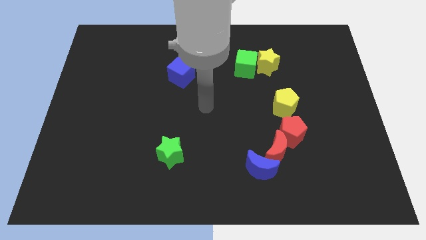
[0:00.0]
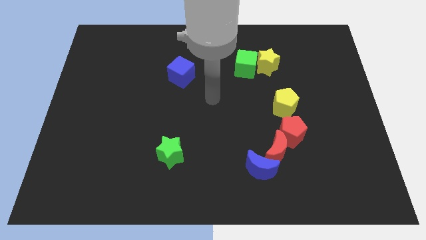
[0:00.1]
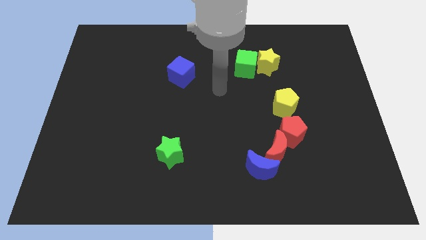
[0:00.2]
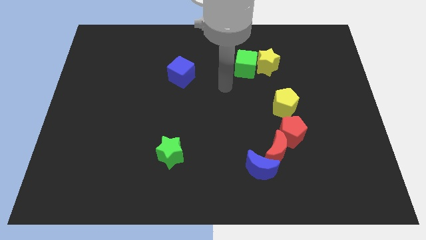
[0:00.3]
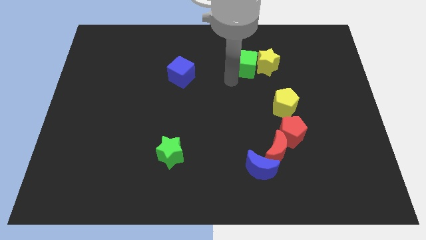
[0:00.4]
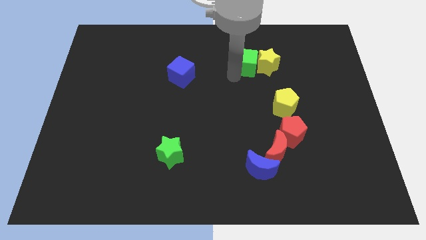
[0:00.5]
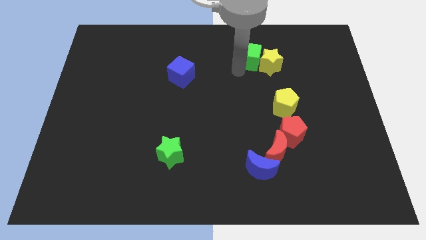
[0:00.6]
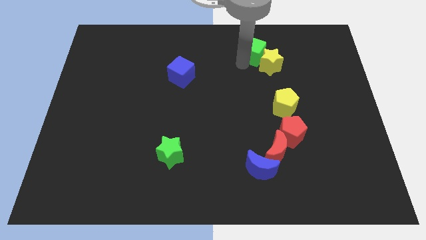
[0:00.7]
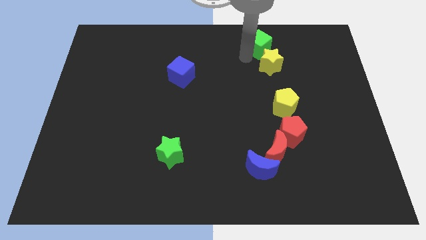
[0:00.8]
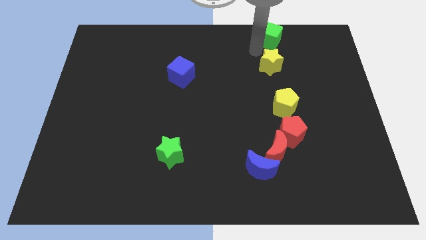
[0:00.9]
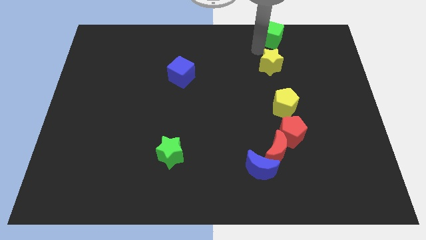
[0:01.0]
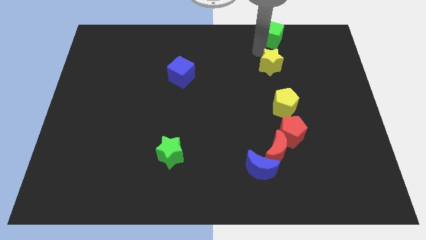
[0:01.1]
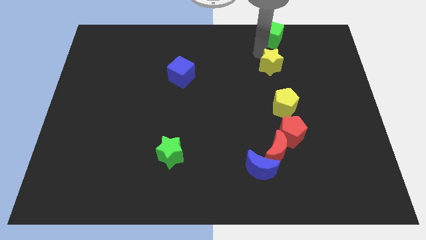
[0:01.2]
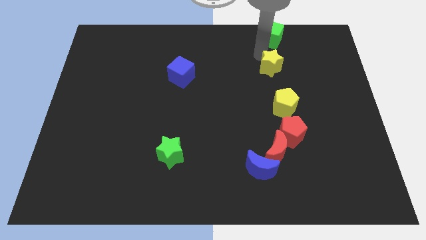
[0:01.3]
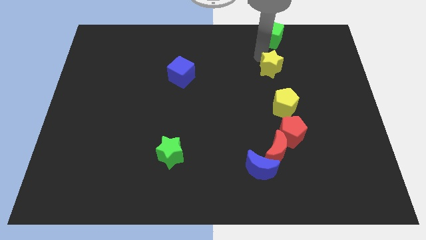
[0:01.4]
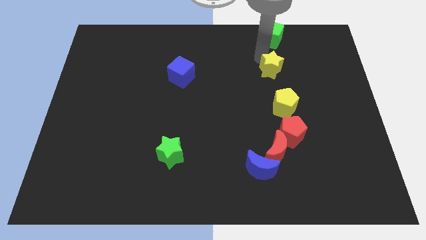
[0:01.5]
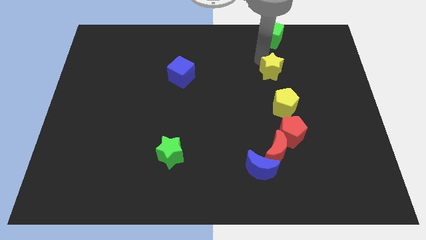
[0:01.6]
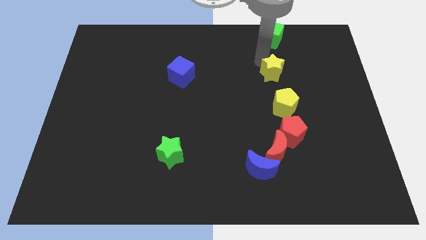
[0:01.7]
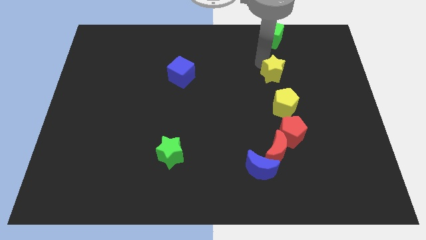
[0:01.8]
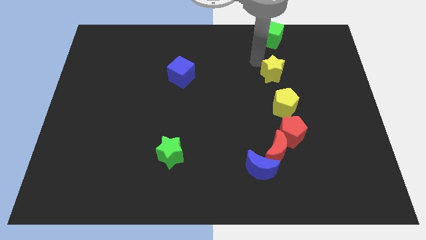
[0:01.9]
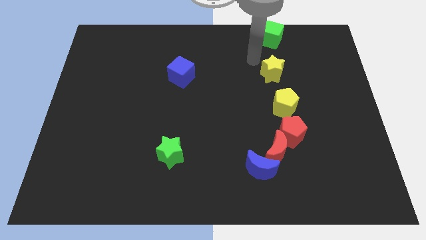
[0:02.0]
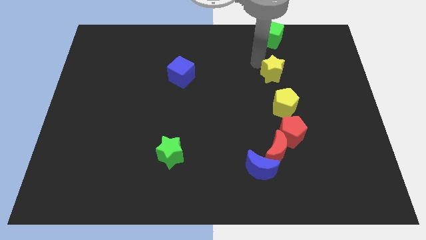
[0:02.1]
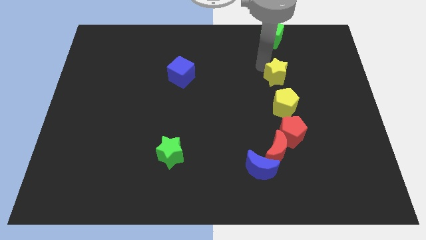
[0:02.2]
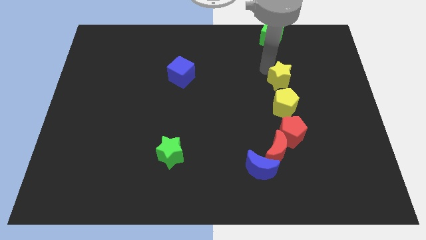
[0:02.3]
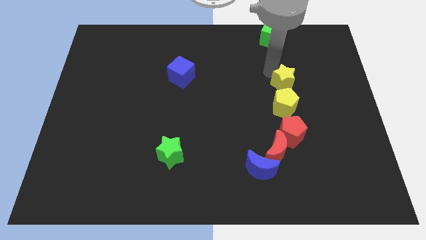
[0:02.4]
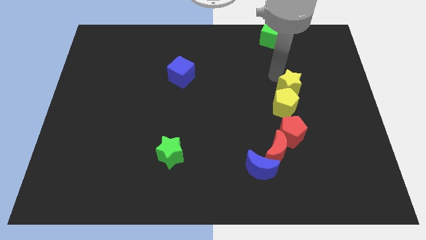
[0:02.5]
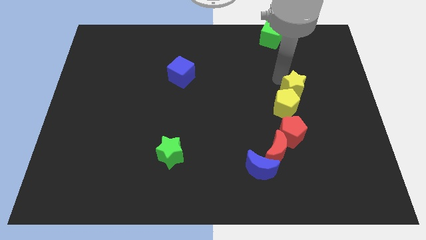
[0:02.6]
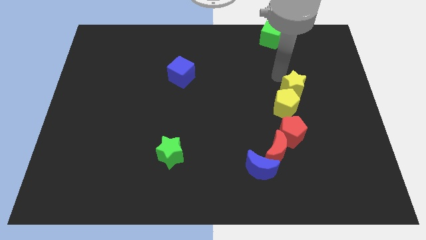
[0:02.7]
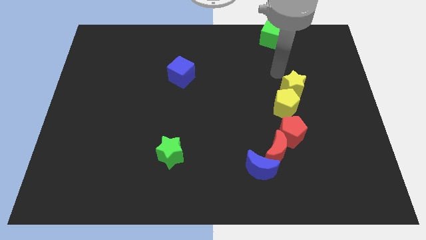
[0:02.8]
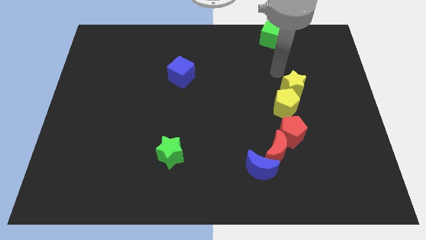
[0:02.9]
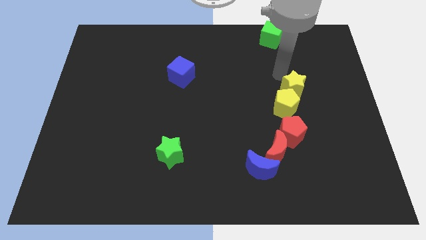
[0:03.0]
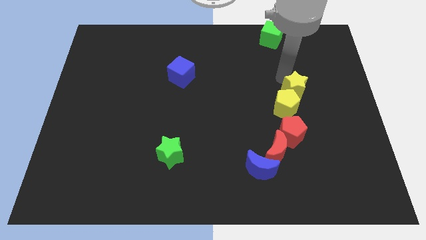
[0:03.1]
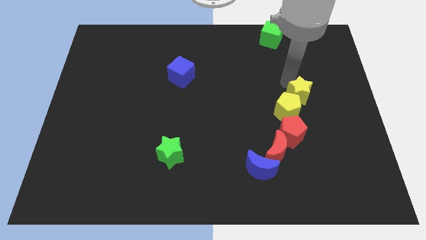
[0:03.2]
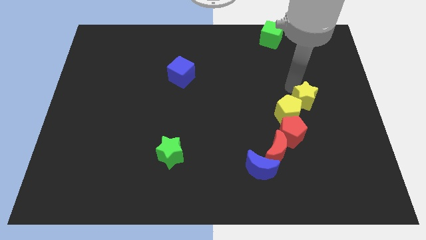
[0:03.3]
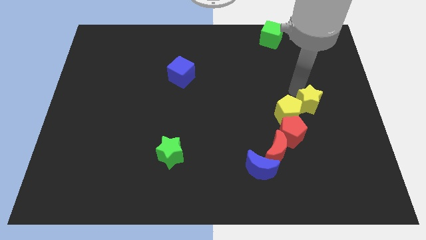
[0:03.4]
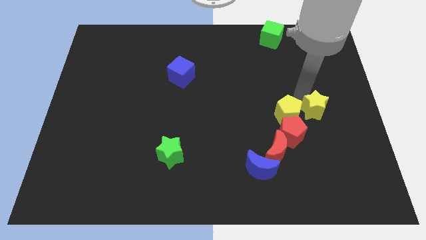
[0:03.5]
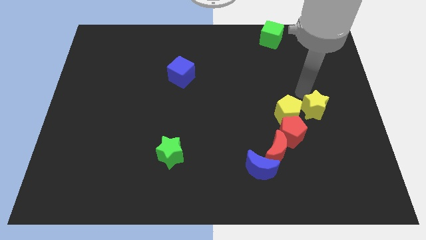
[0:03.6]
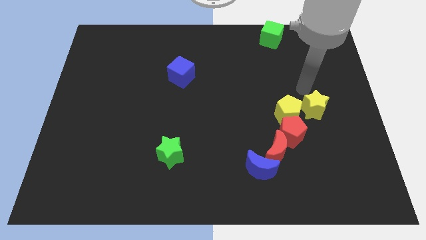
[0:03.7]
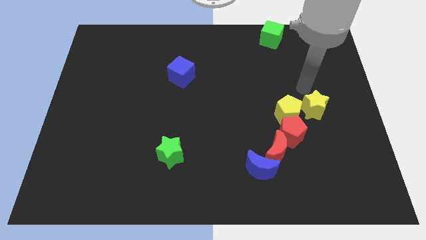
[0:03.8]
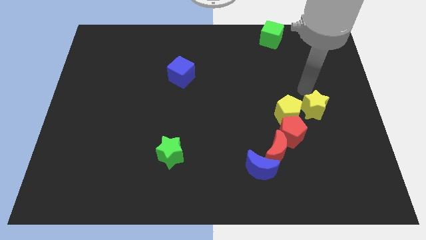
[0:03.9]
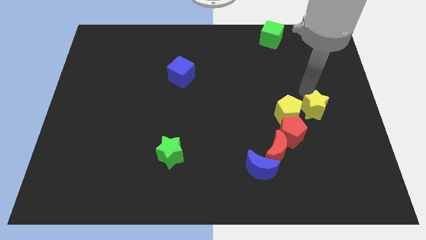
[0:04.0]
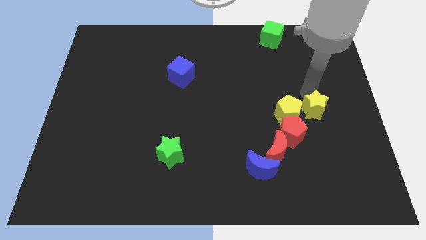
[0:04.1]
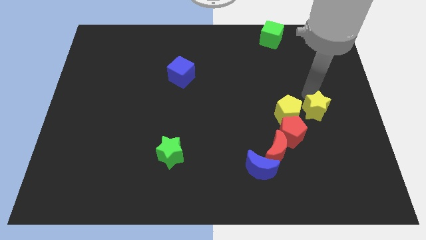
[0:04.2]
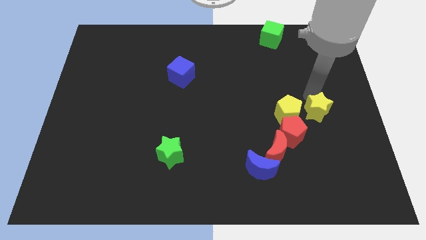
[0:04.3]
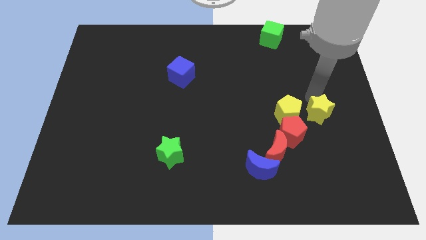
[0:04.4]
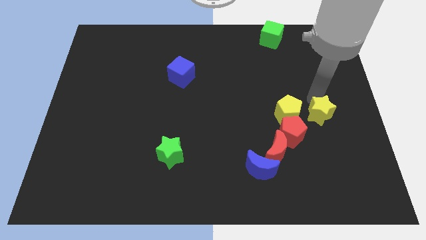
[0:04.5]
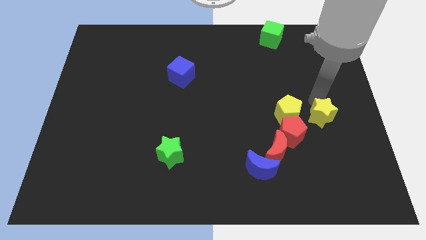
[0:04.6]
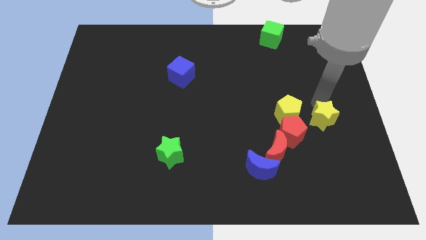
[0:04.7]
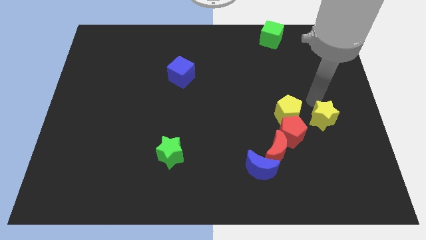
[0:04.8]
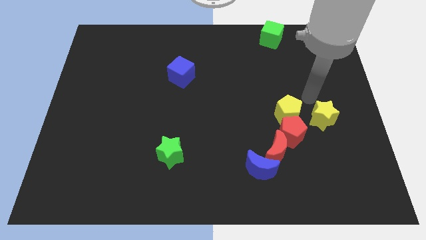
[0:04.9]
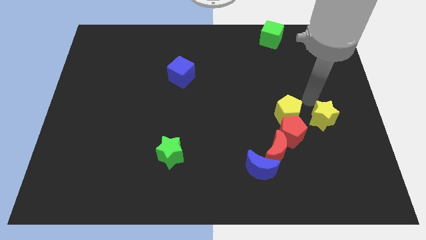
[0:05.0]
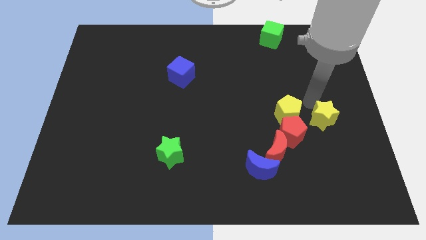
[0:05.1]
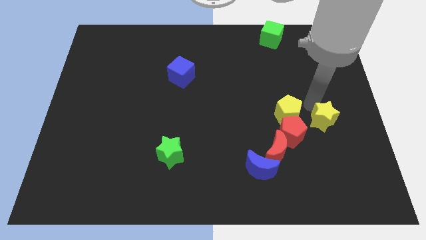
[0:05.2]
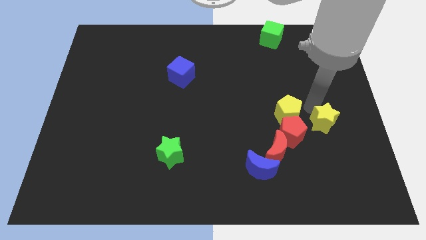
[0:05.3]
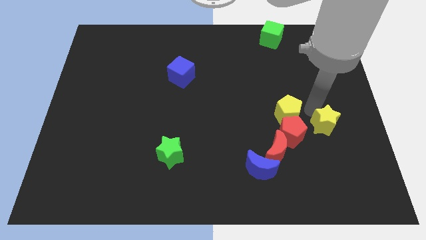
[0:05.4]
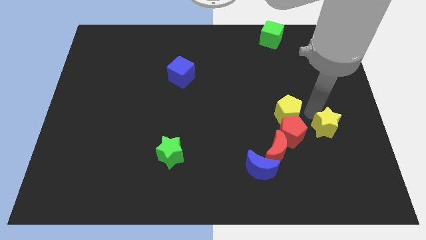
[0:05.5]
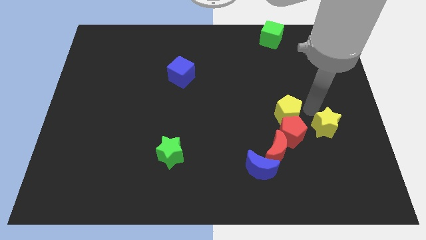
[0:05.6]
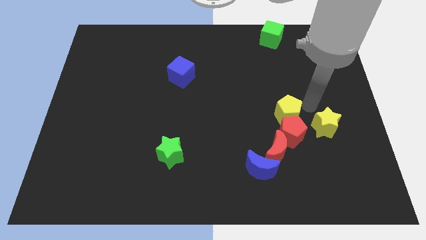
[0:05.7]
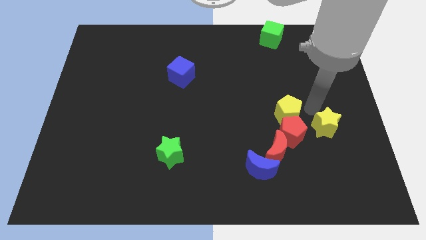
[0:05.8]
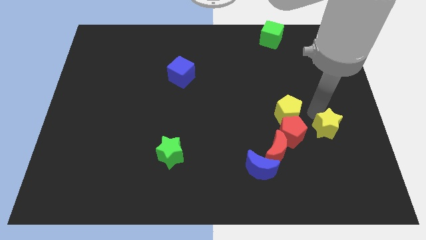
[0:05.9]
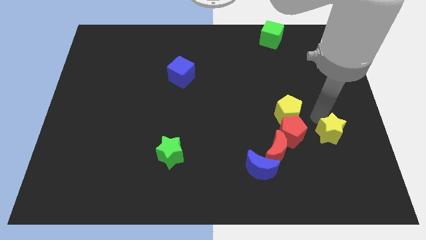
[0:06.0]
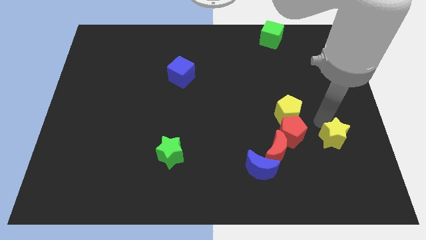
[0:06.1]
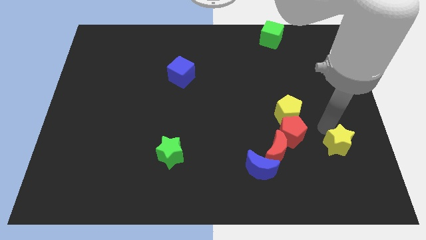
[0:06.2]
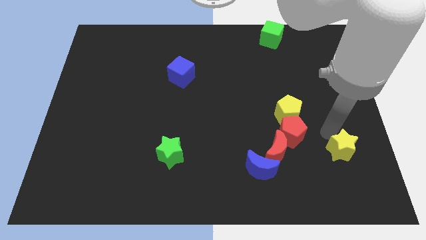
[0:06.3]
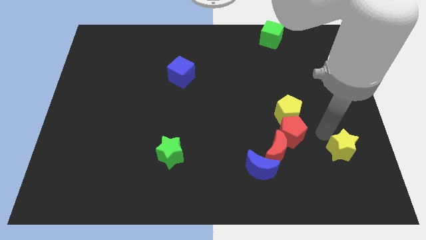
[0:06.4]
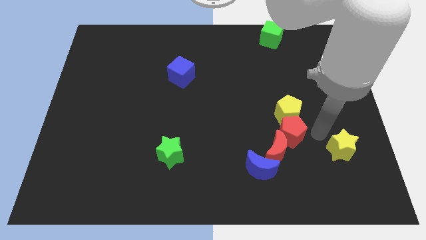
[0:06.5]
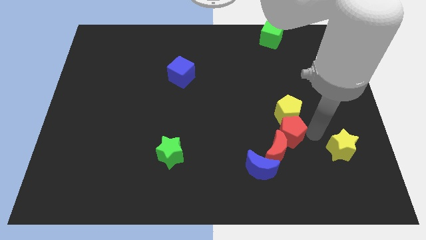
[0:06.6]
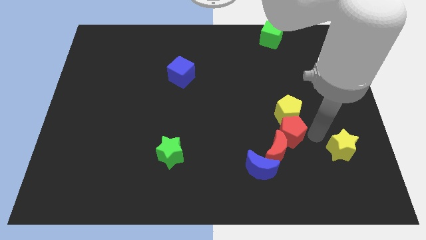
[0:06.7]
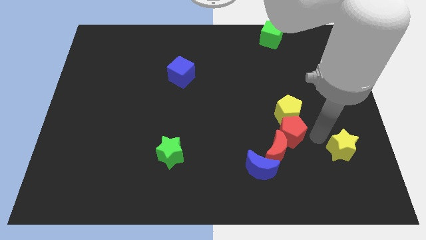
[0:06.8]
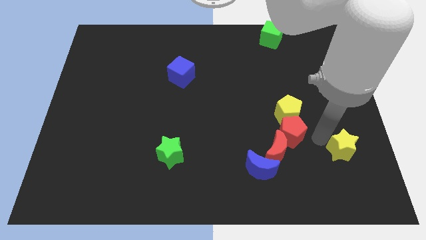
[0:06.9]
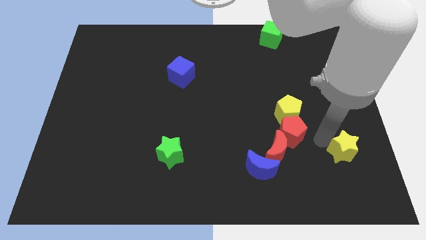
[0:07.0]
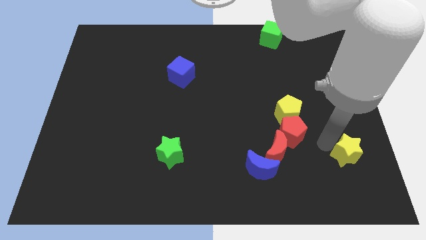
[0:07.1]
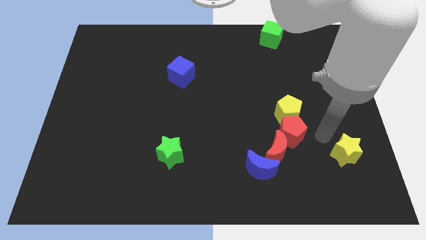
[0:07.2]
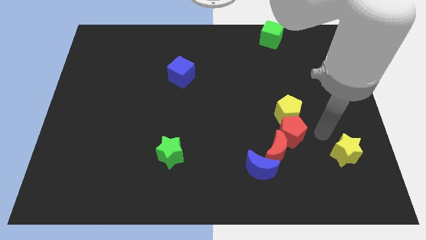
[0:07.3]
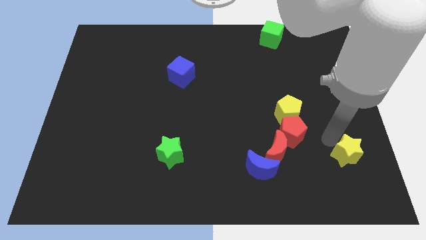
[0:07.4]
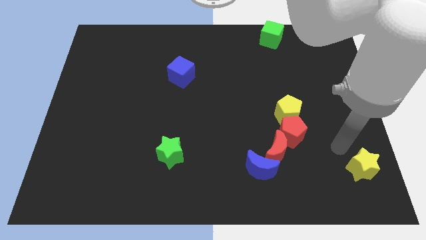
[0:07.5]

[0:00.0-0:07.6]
push the yellow star to the bottom right
